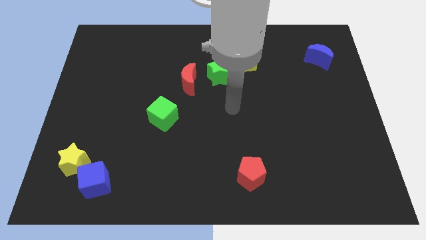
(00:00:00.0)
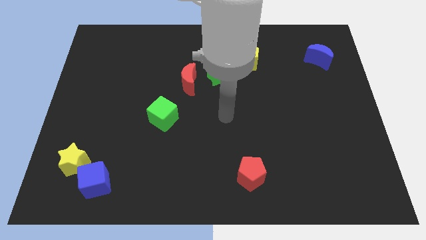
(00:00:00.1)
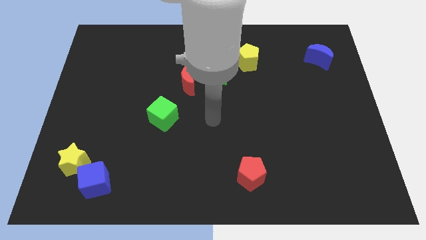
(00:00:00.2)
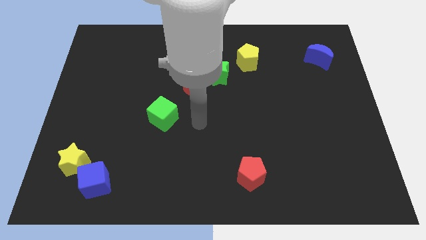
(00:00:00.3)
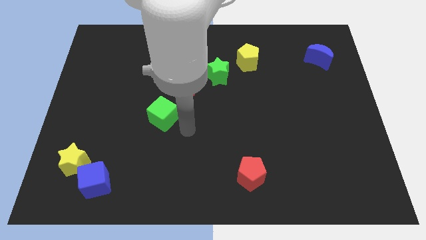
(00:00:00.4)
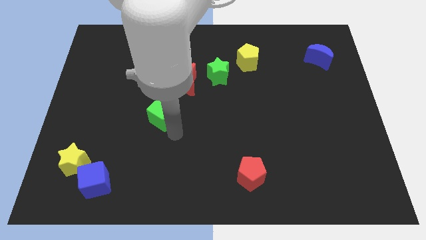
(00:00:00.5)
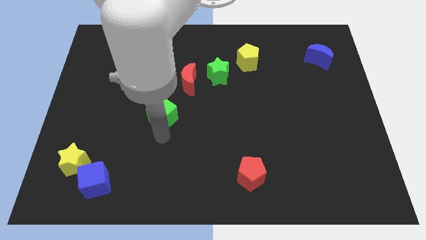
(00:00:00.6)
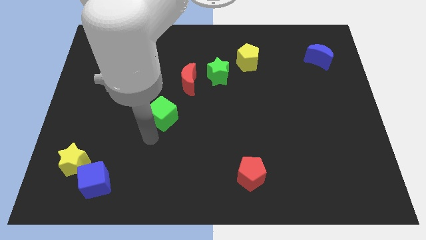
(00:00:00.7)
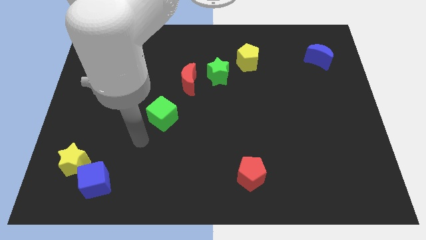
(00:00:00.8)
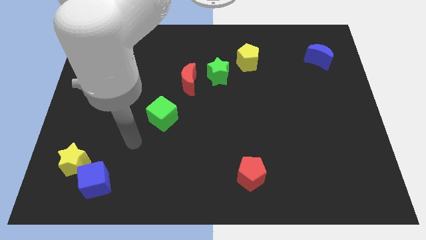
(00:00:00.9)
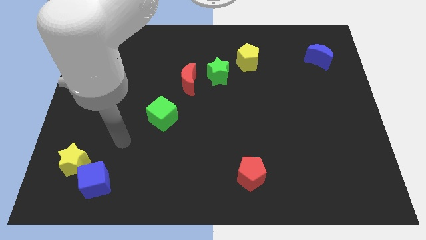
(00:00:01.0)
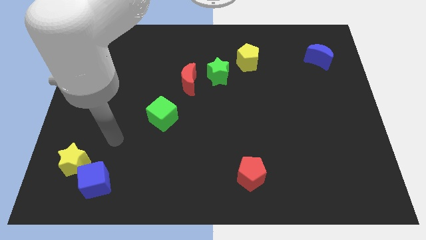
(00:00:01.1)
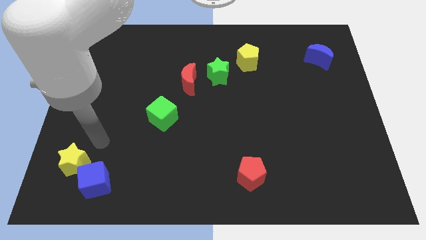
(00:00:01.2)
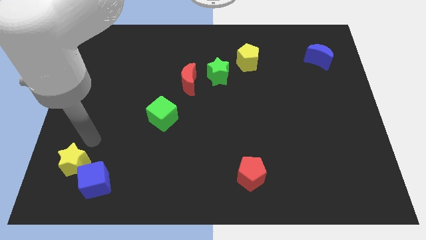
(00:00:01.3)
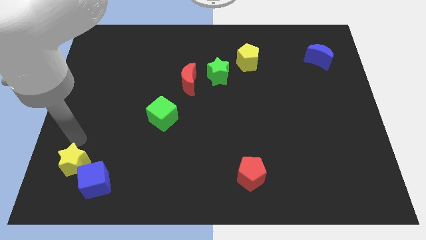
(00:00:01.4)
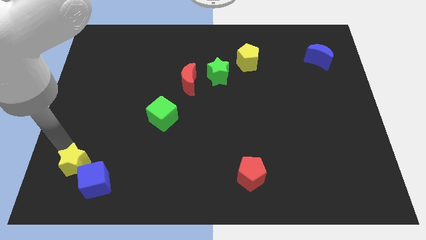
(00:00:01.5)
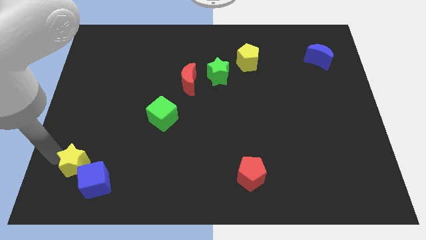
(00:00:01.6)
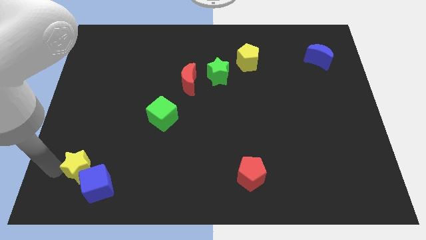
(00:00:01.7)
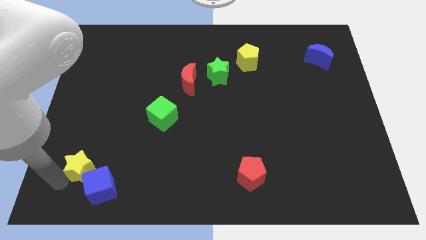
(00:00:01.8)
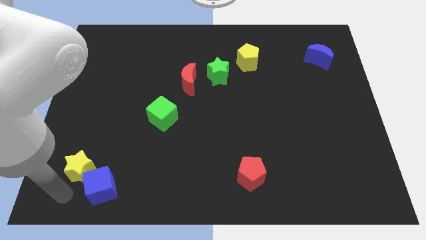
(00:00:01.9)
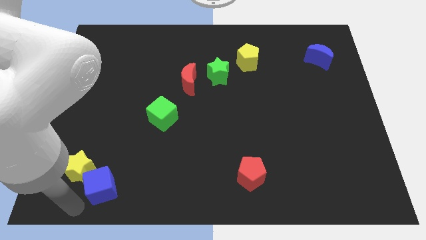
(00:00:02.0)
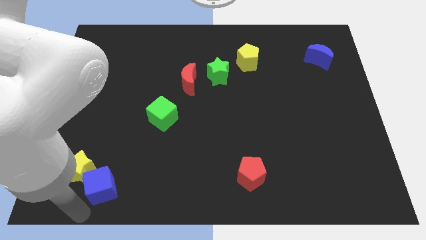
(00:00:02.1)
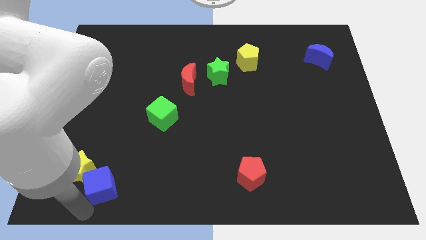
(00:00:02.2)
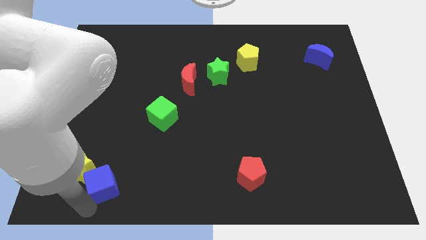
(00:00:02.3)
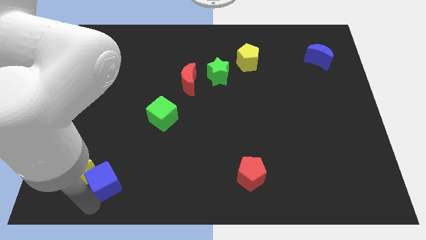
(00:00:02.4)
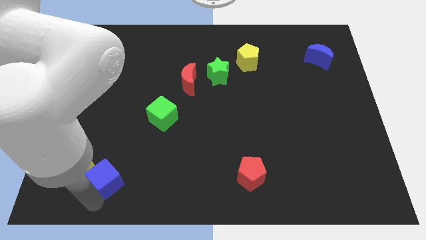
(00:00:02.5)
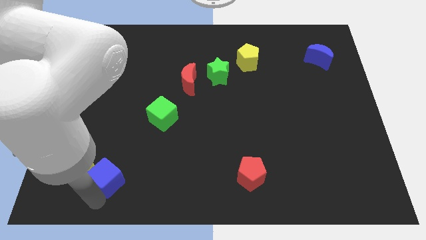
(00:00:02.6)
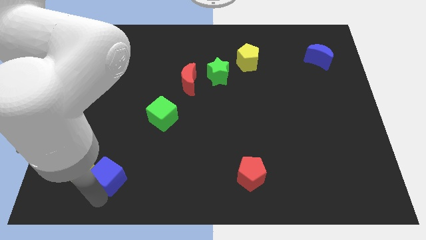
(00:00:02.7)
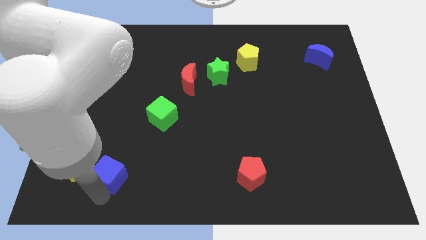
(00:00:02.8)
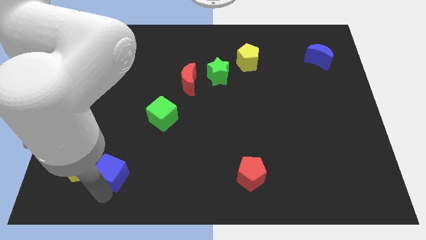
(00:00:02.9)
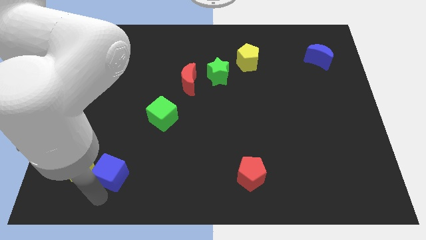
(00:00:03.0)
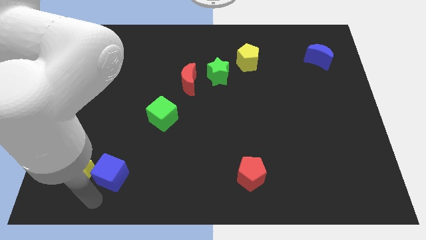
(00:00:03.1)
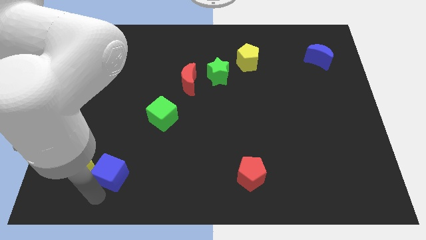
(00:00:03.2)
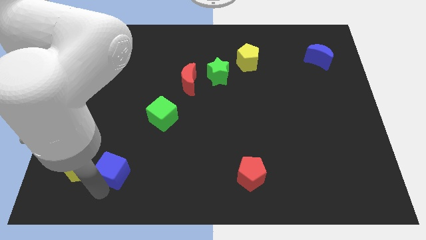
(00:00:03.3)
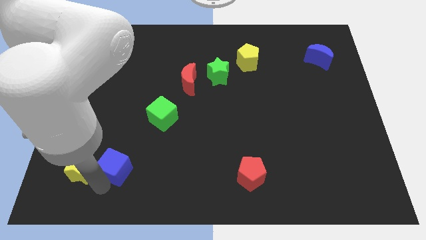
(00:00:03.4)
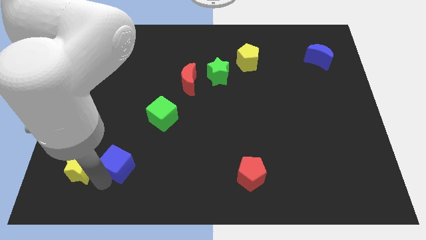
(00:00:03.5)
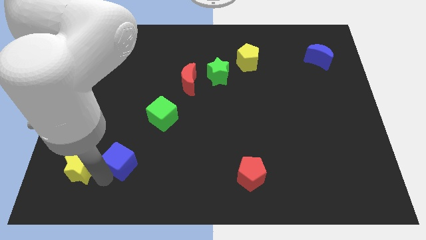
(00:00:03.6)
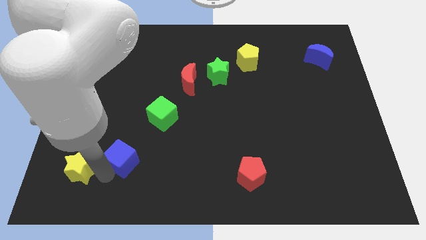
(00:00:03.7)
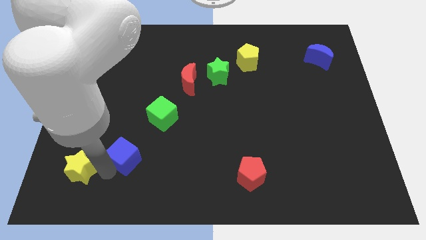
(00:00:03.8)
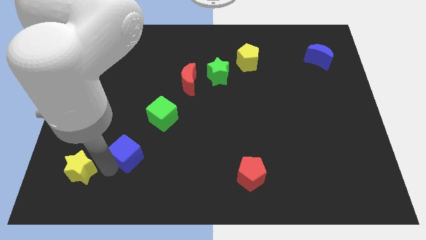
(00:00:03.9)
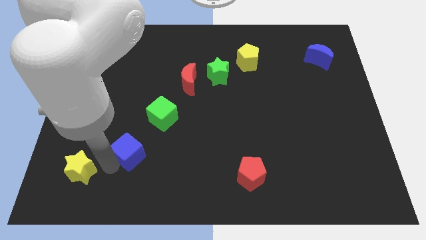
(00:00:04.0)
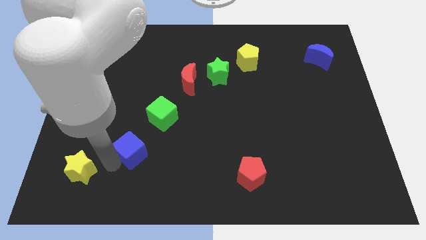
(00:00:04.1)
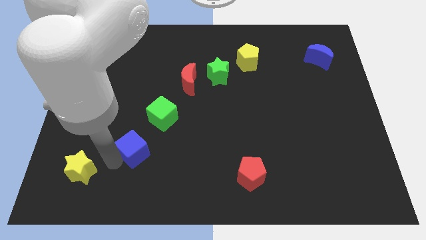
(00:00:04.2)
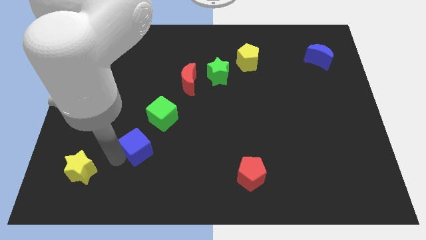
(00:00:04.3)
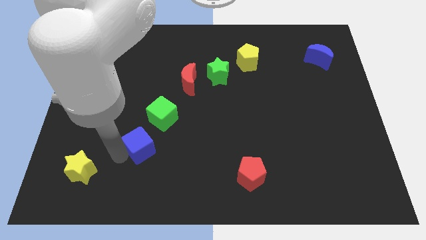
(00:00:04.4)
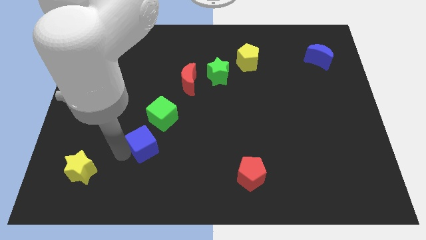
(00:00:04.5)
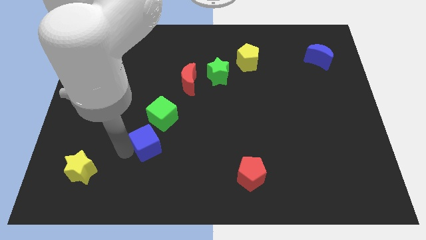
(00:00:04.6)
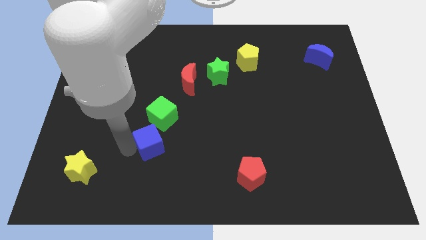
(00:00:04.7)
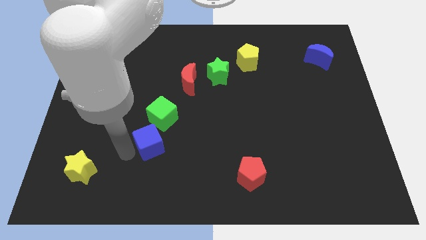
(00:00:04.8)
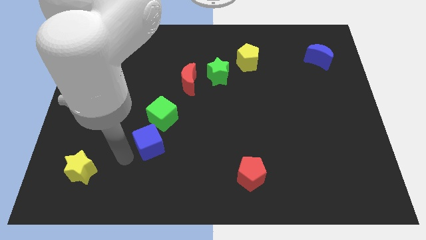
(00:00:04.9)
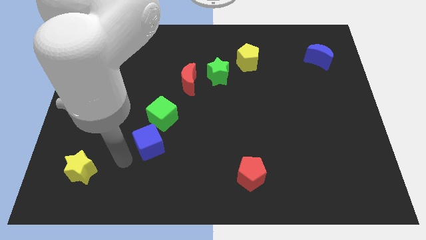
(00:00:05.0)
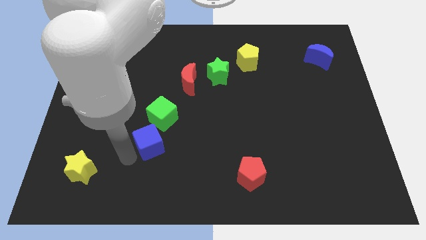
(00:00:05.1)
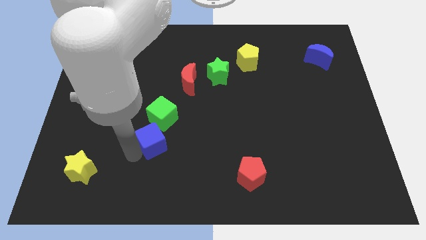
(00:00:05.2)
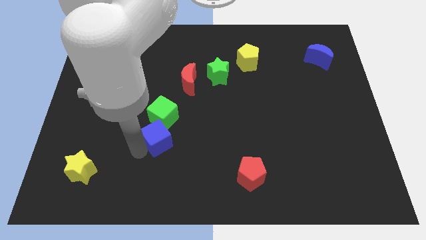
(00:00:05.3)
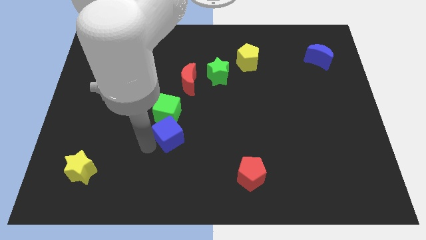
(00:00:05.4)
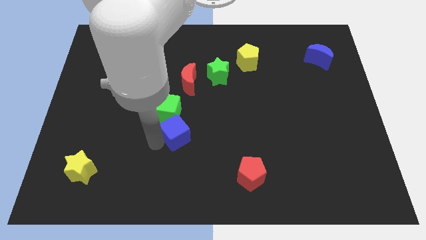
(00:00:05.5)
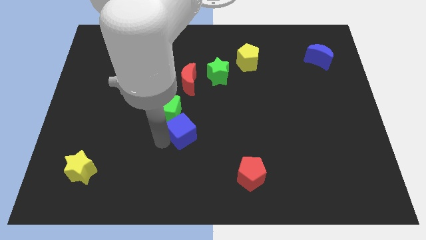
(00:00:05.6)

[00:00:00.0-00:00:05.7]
move the blue cube up and to the right

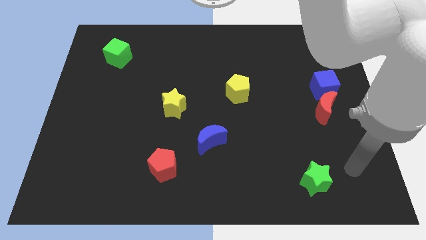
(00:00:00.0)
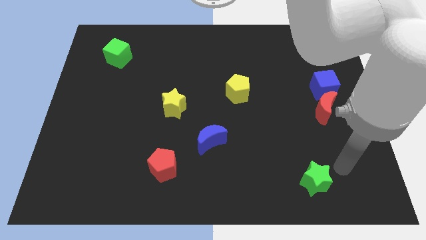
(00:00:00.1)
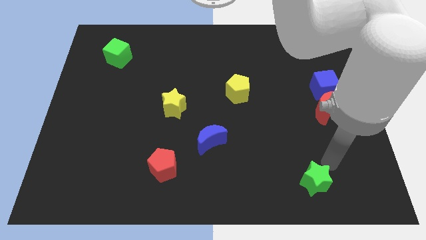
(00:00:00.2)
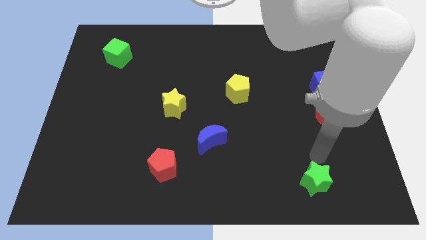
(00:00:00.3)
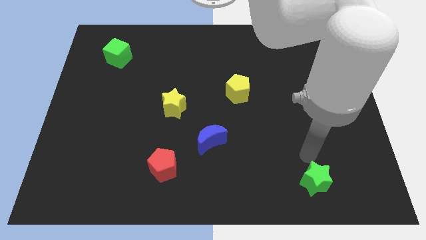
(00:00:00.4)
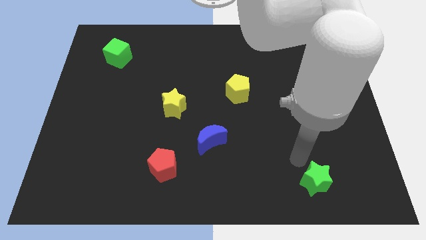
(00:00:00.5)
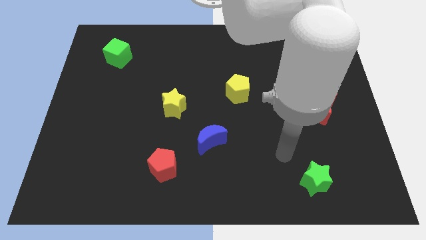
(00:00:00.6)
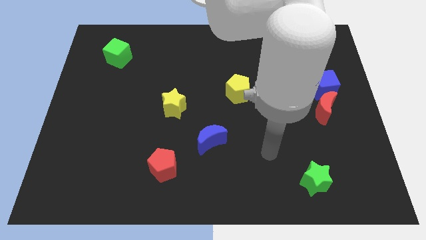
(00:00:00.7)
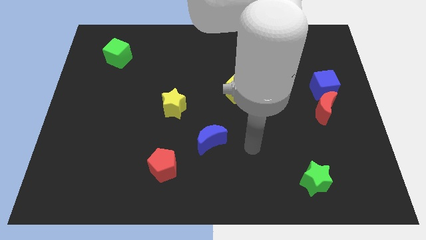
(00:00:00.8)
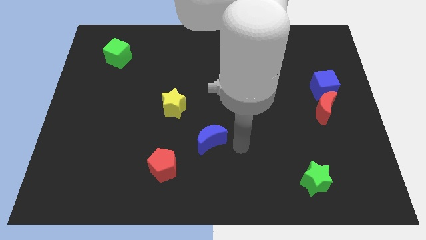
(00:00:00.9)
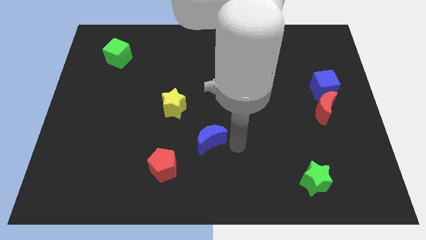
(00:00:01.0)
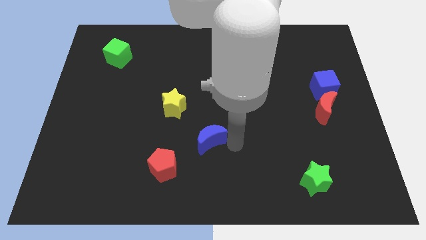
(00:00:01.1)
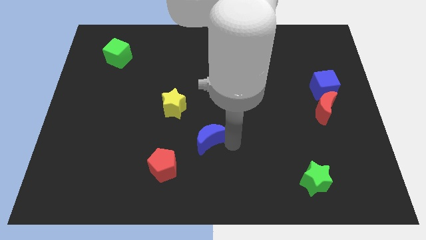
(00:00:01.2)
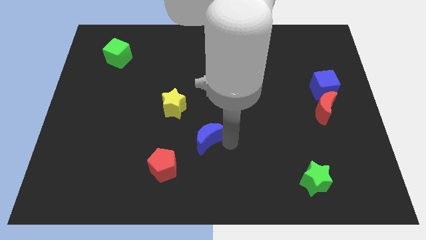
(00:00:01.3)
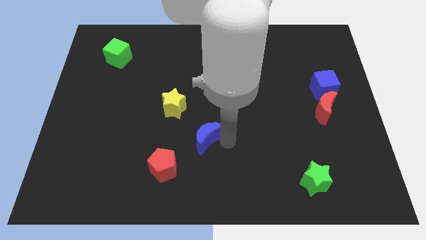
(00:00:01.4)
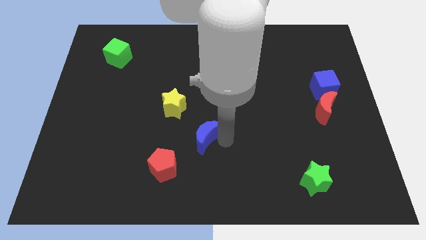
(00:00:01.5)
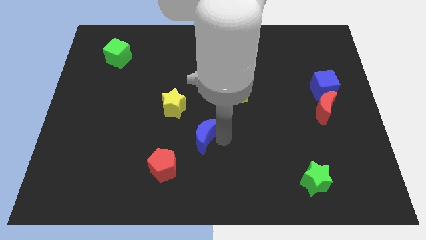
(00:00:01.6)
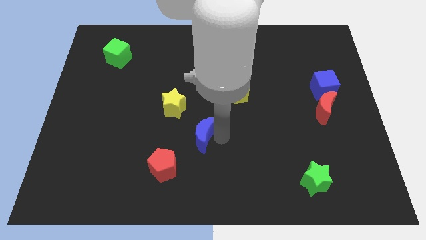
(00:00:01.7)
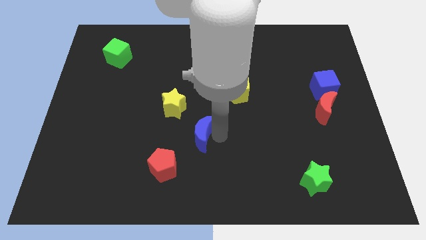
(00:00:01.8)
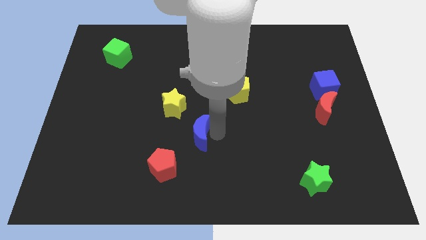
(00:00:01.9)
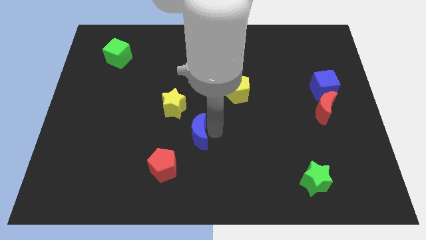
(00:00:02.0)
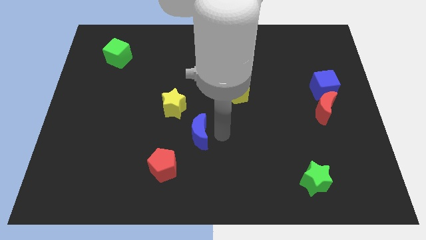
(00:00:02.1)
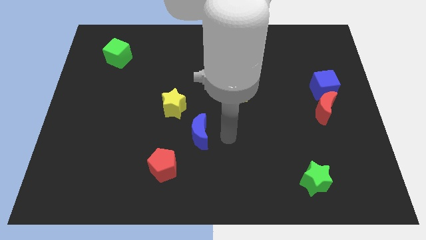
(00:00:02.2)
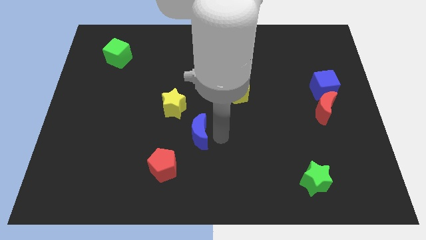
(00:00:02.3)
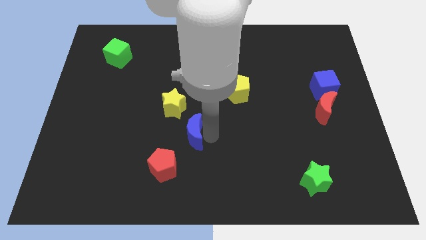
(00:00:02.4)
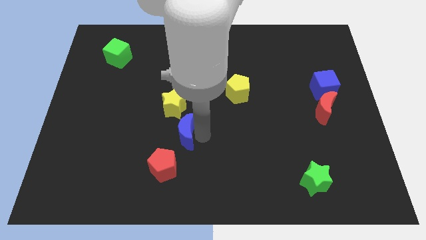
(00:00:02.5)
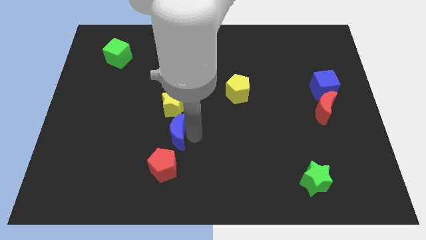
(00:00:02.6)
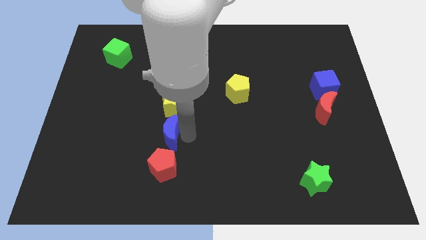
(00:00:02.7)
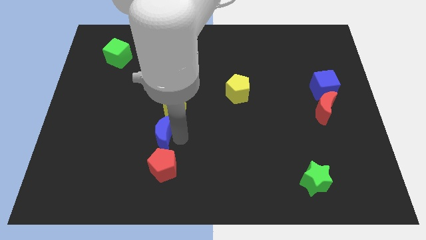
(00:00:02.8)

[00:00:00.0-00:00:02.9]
slide the blue moon somewhat upwards and then to the left
